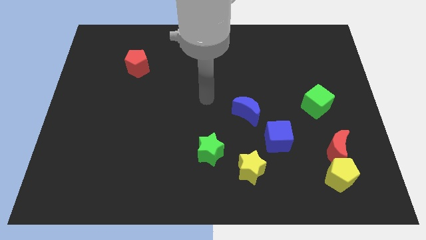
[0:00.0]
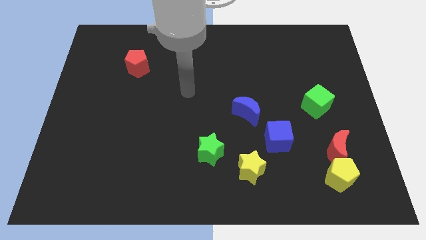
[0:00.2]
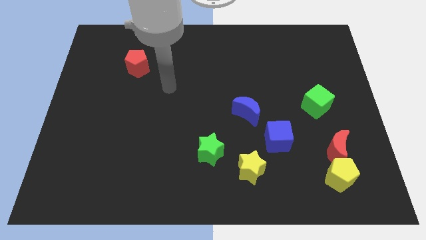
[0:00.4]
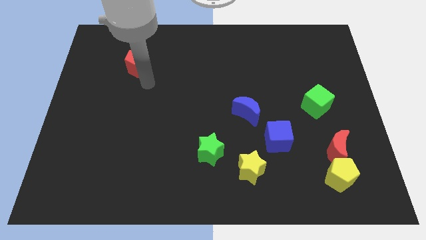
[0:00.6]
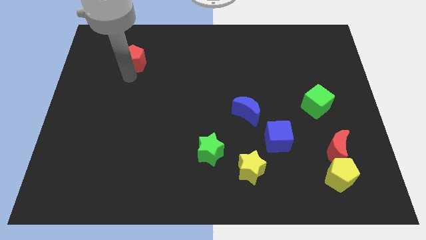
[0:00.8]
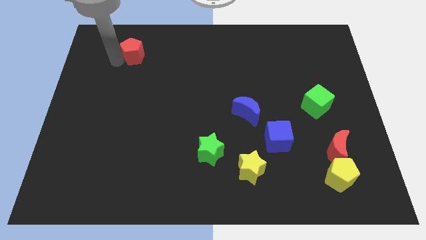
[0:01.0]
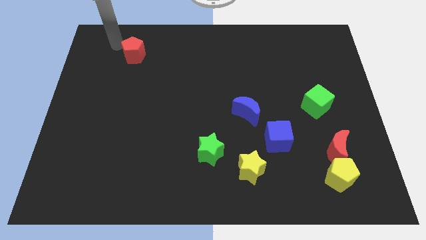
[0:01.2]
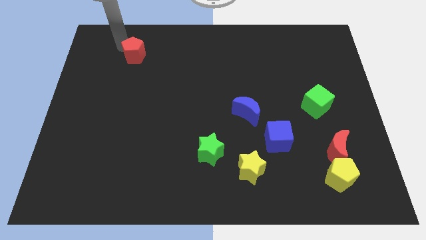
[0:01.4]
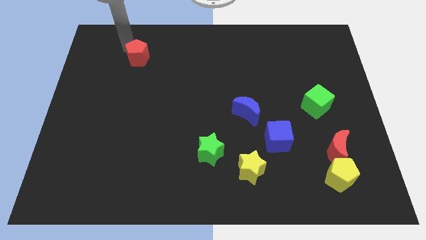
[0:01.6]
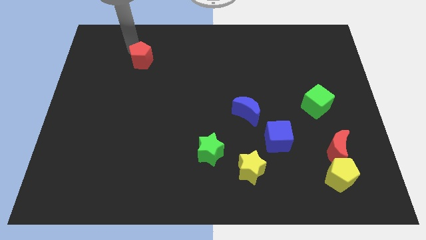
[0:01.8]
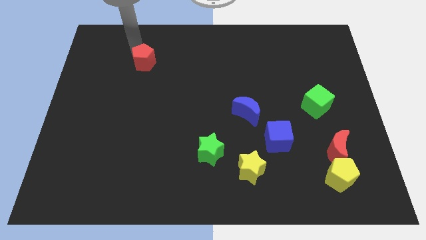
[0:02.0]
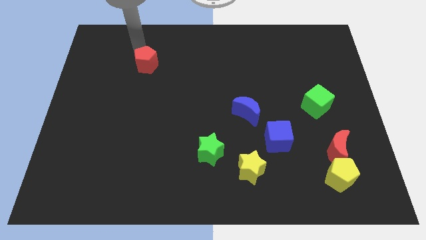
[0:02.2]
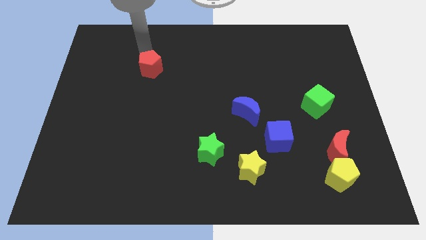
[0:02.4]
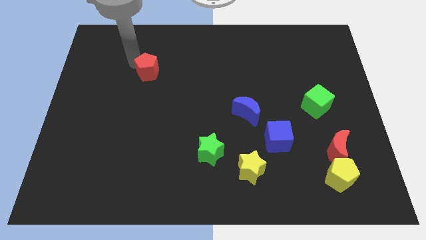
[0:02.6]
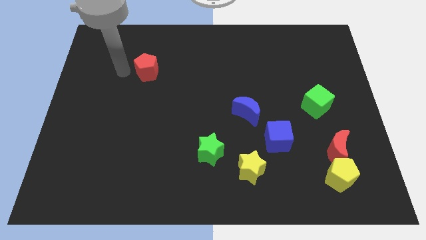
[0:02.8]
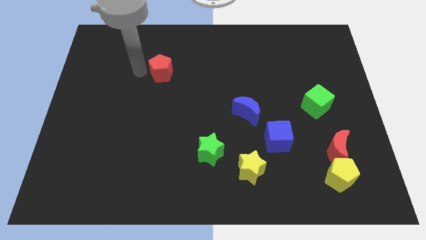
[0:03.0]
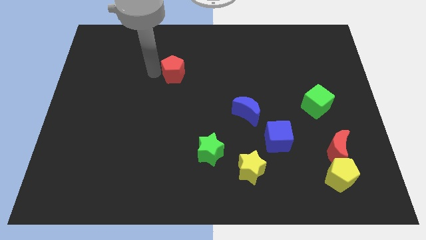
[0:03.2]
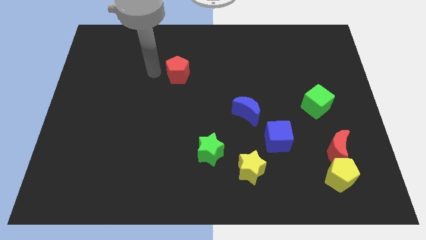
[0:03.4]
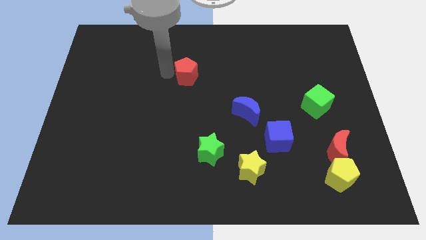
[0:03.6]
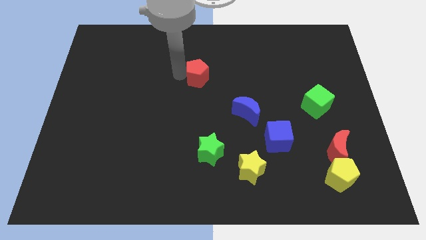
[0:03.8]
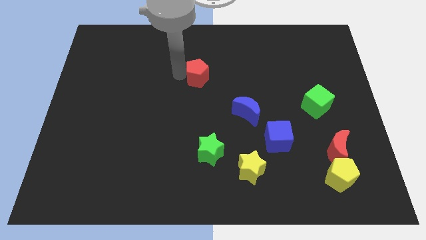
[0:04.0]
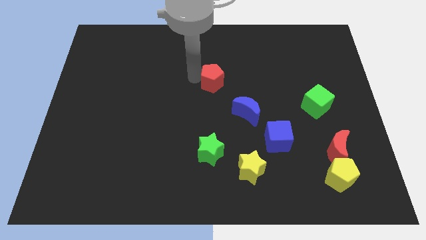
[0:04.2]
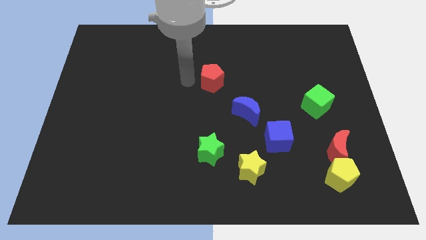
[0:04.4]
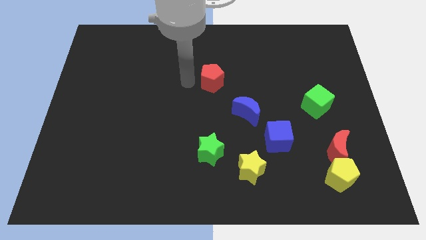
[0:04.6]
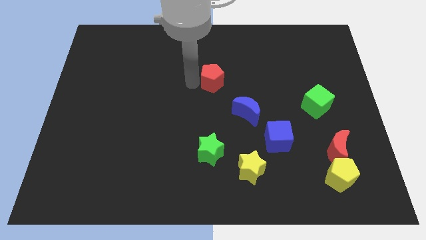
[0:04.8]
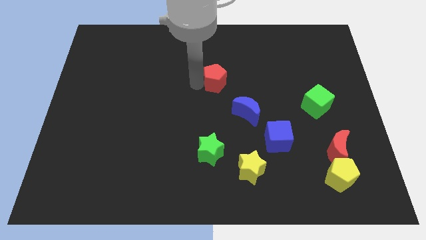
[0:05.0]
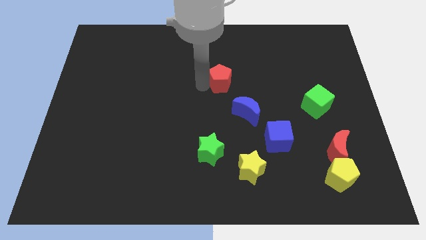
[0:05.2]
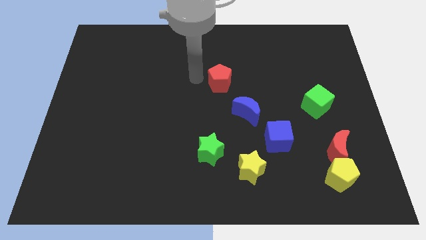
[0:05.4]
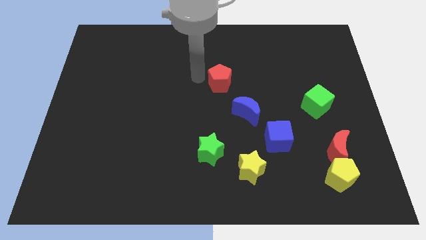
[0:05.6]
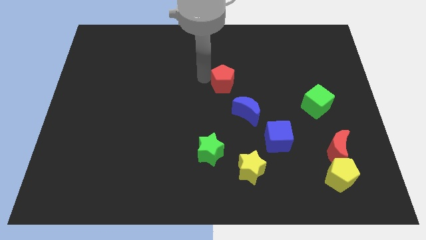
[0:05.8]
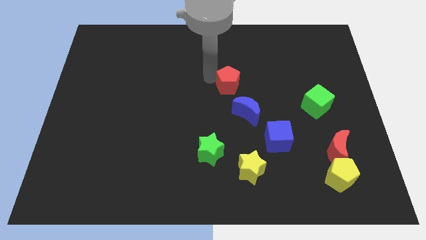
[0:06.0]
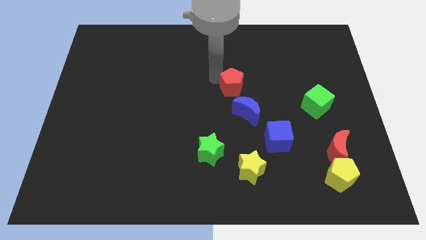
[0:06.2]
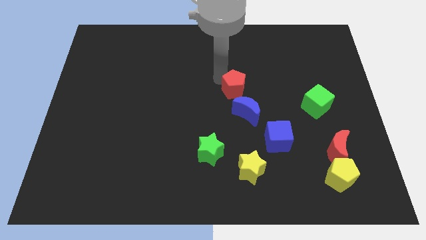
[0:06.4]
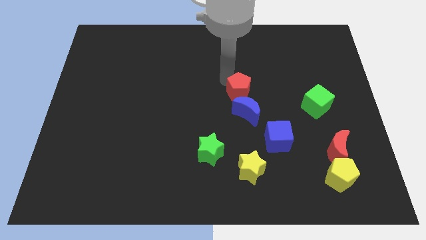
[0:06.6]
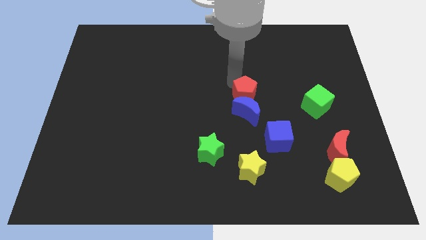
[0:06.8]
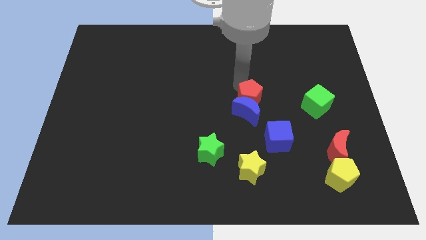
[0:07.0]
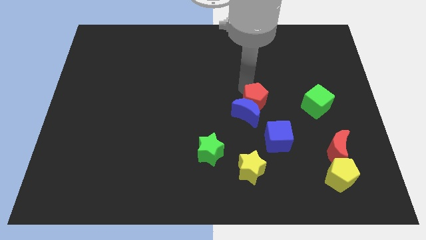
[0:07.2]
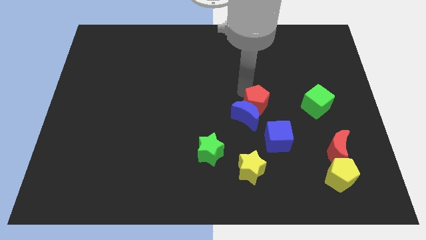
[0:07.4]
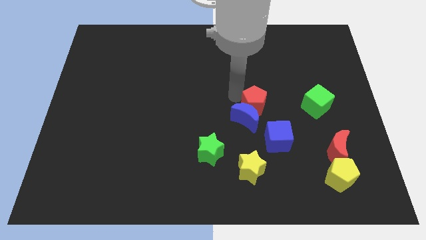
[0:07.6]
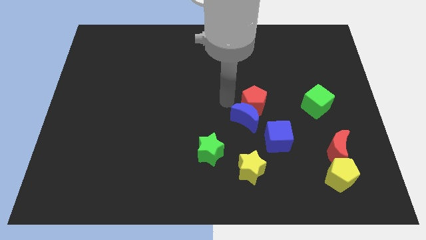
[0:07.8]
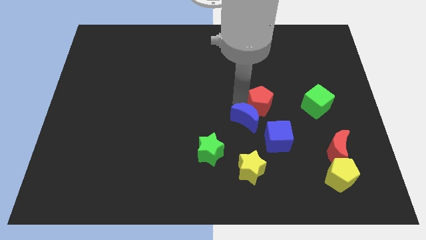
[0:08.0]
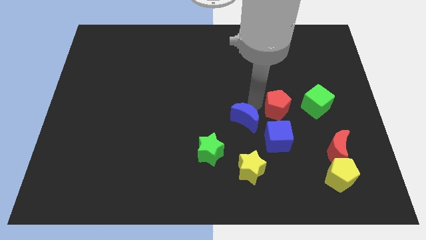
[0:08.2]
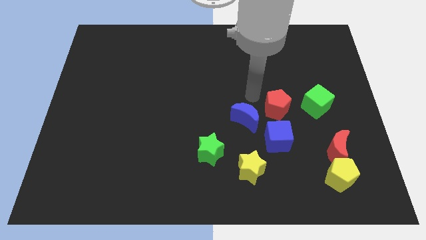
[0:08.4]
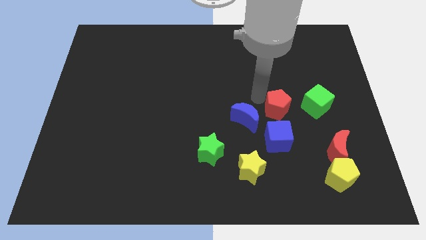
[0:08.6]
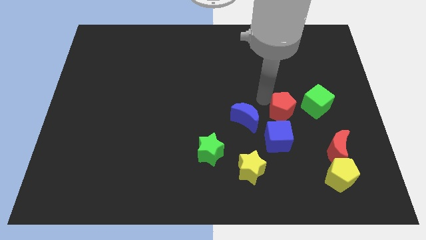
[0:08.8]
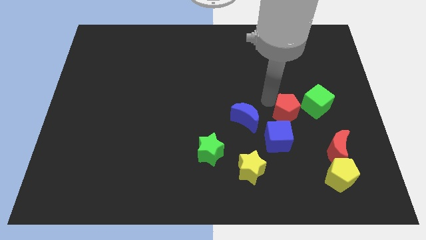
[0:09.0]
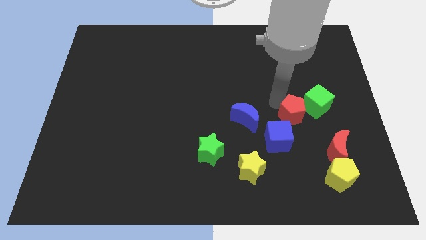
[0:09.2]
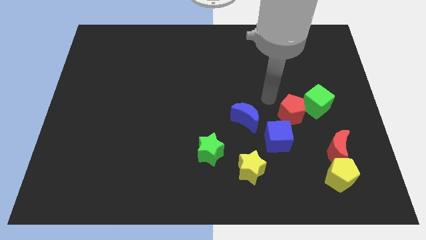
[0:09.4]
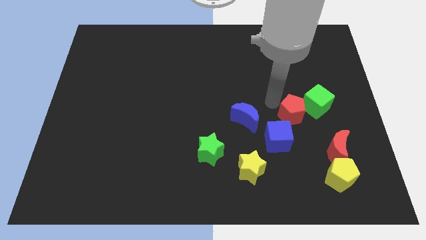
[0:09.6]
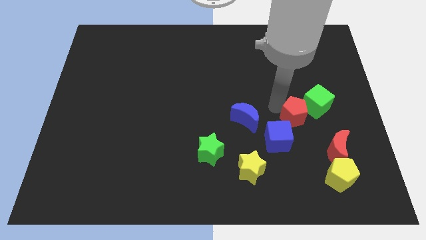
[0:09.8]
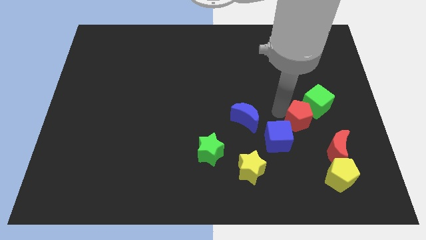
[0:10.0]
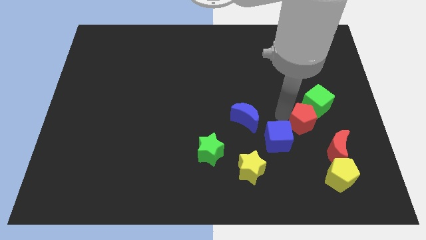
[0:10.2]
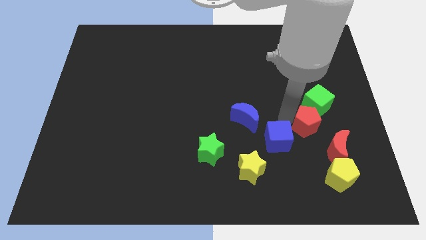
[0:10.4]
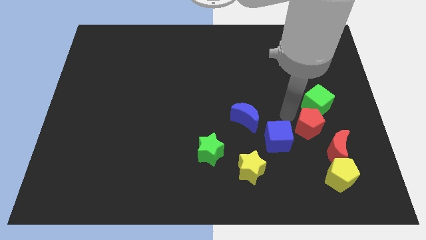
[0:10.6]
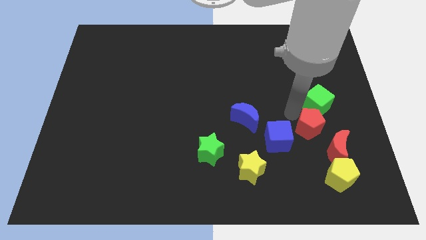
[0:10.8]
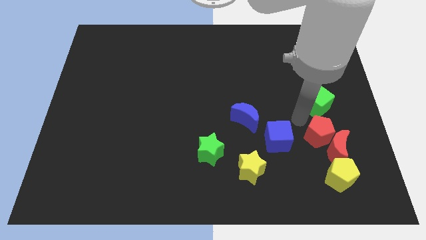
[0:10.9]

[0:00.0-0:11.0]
put the red pentagon close to the red moon

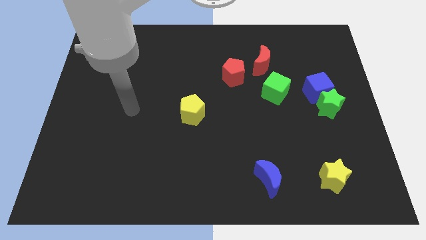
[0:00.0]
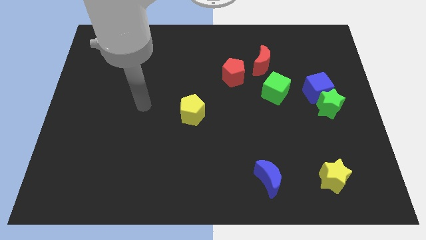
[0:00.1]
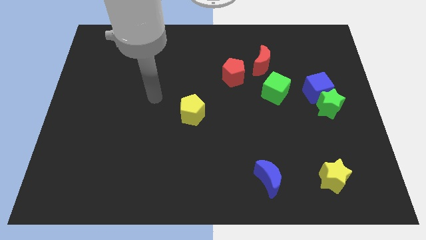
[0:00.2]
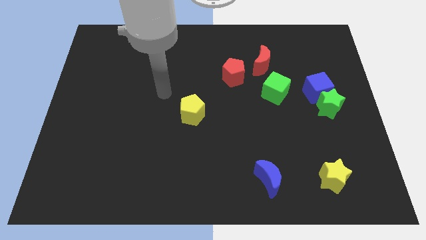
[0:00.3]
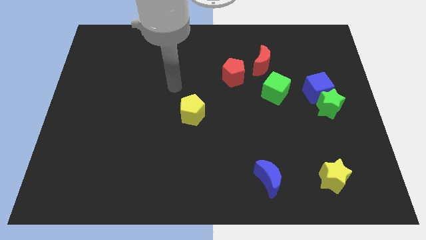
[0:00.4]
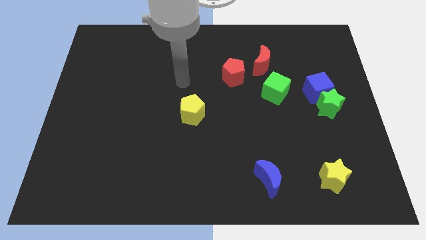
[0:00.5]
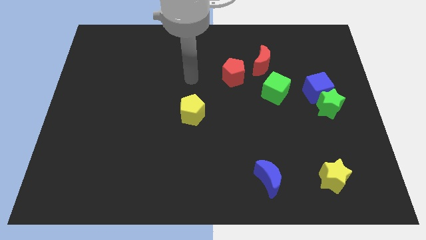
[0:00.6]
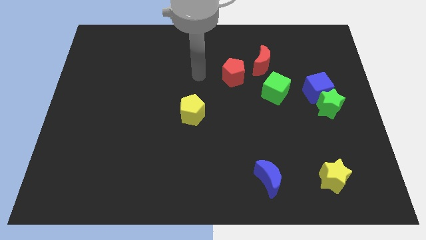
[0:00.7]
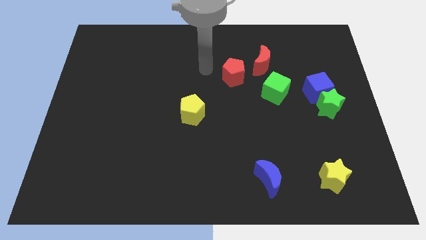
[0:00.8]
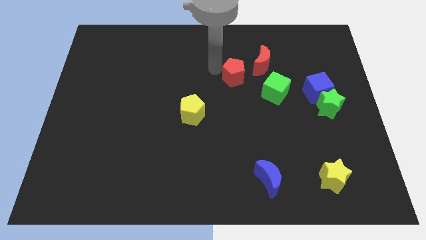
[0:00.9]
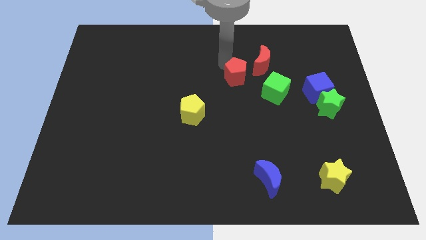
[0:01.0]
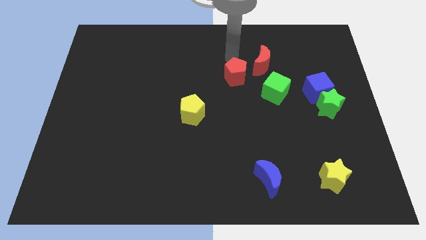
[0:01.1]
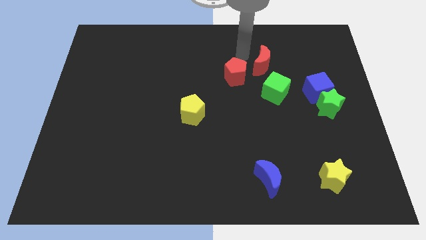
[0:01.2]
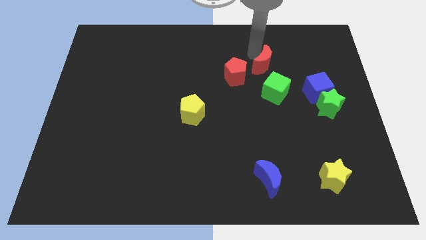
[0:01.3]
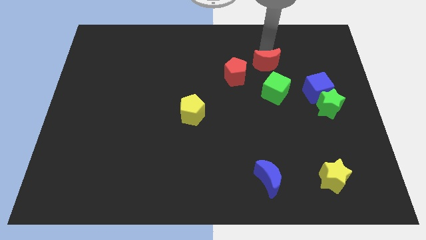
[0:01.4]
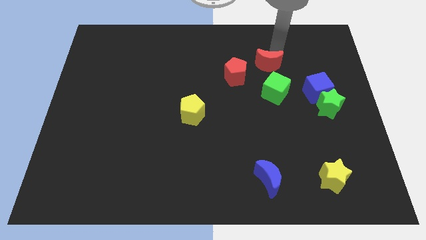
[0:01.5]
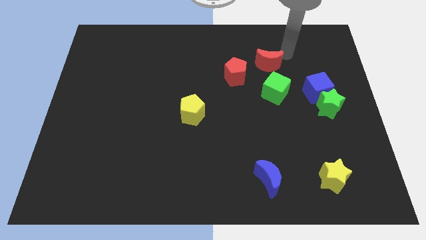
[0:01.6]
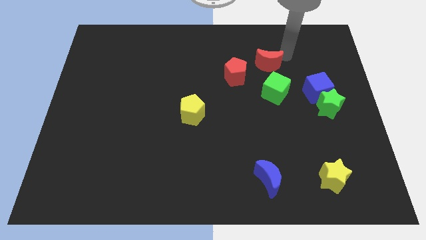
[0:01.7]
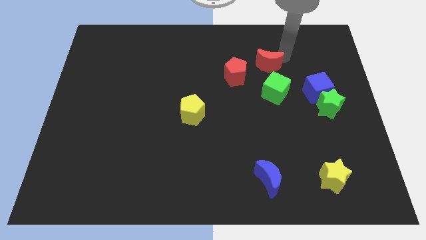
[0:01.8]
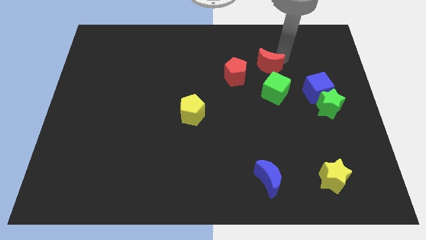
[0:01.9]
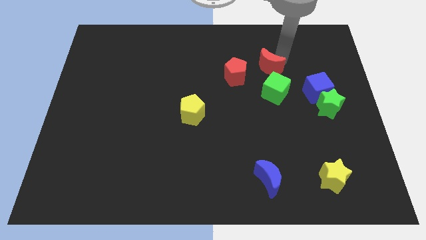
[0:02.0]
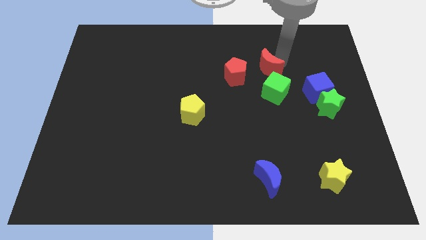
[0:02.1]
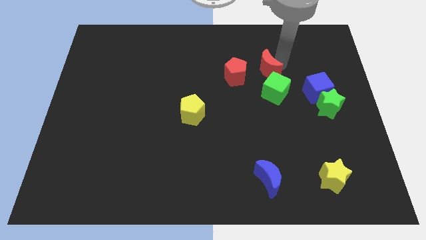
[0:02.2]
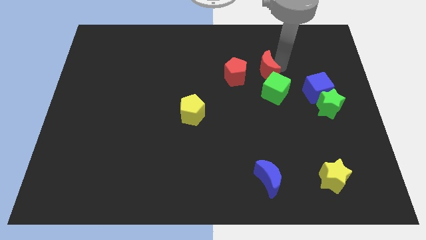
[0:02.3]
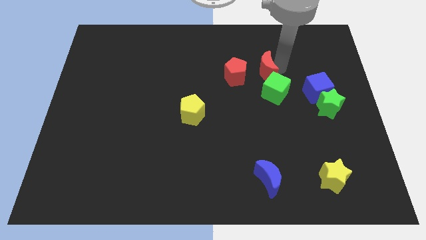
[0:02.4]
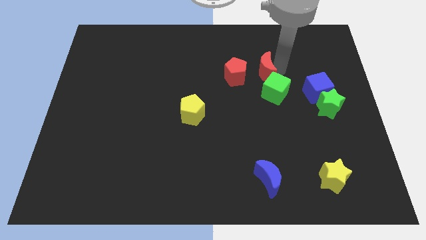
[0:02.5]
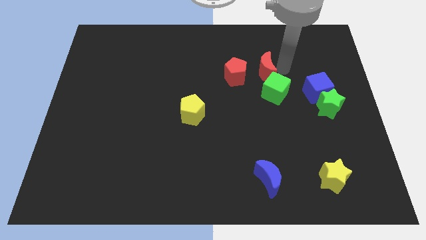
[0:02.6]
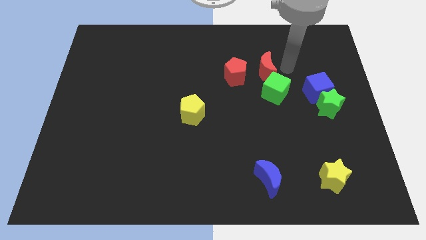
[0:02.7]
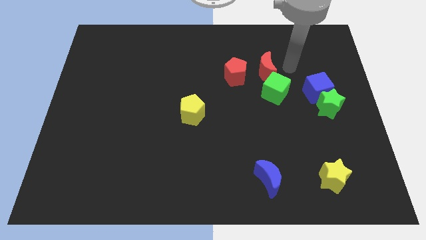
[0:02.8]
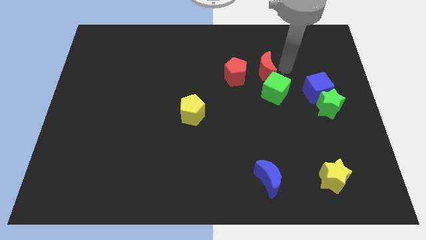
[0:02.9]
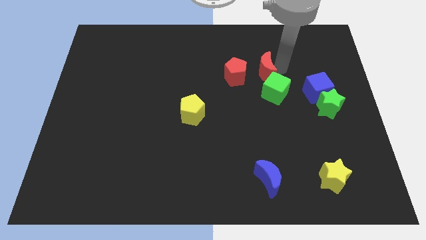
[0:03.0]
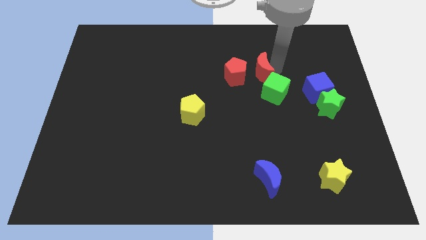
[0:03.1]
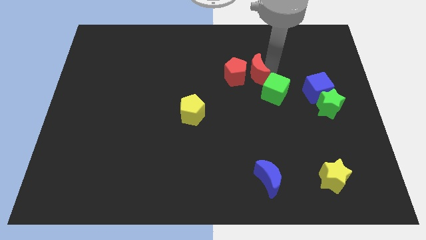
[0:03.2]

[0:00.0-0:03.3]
push the red moon close to the red pentagon
